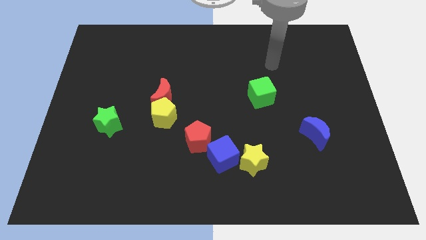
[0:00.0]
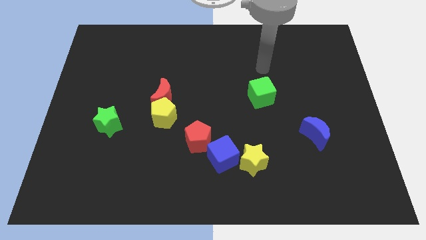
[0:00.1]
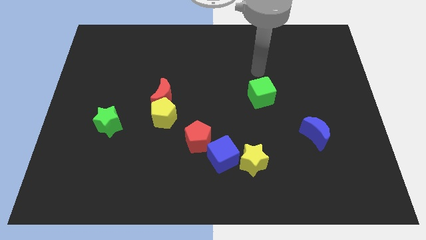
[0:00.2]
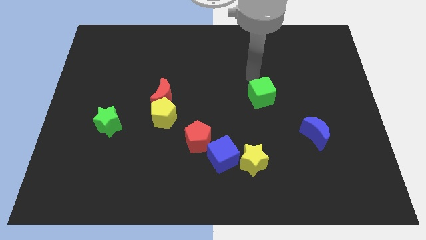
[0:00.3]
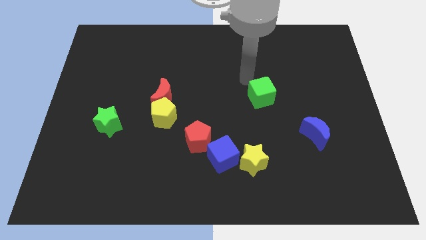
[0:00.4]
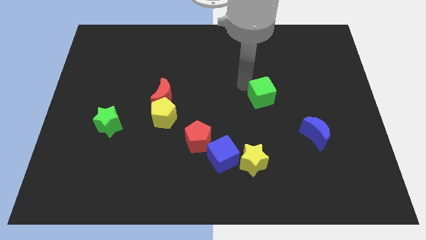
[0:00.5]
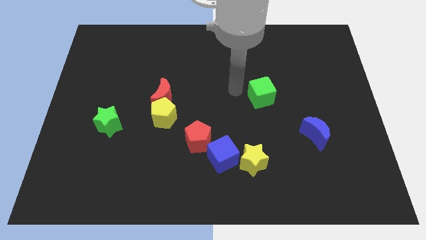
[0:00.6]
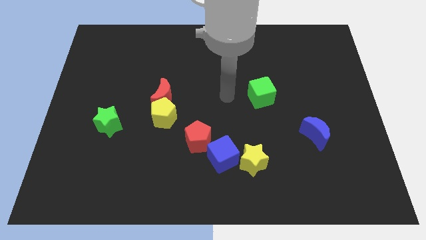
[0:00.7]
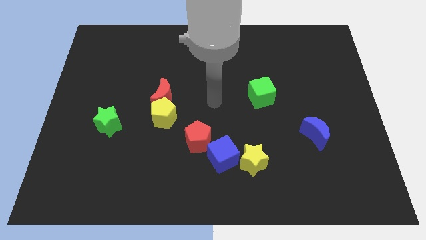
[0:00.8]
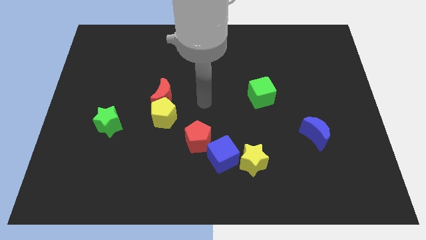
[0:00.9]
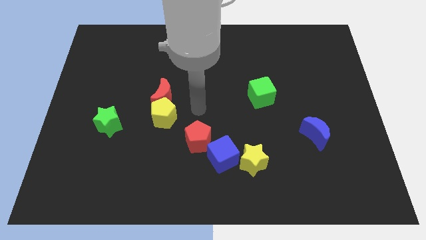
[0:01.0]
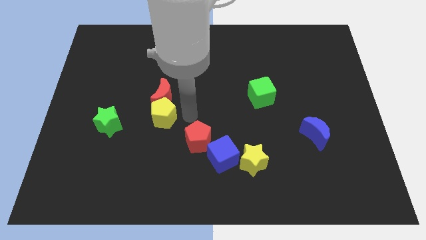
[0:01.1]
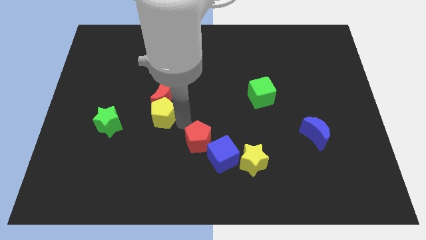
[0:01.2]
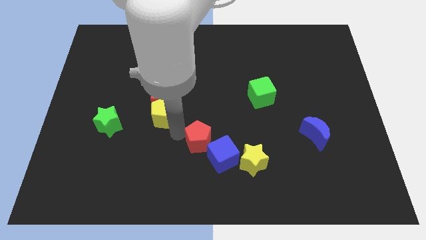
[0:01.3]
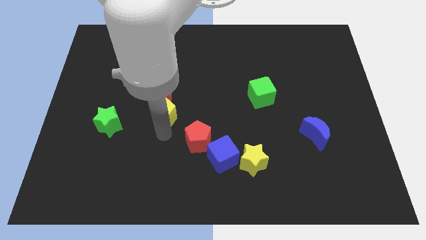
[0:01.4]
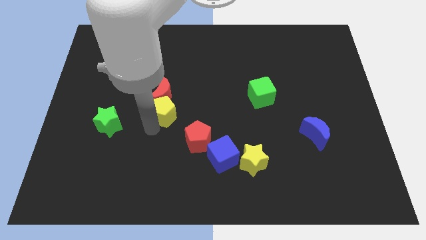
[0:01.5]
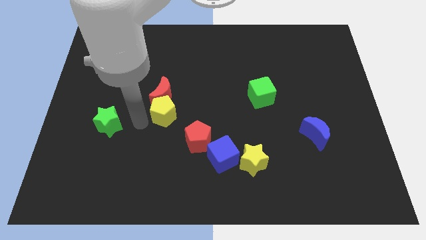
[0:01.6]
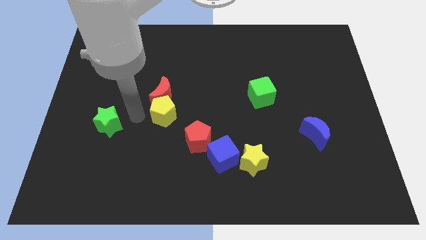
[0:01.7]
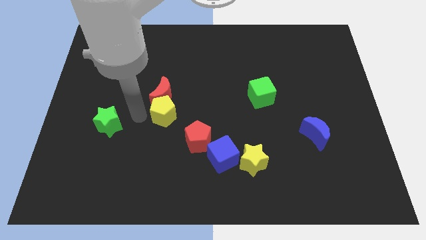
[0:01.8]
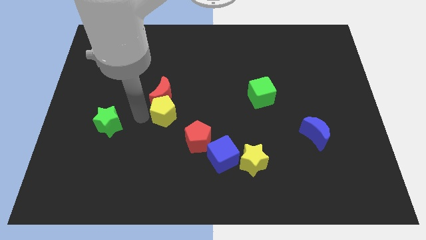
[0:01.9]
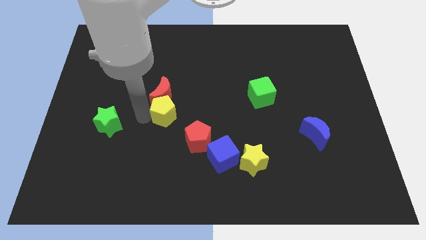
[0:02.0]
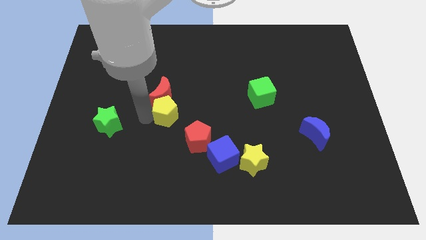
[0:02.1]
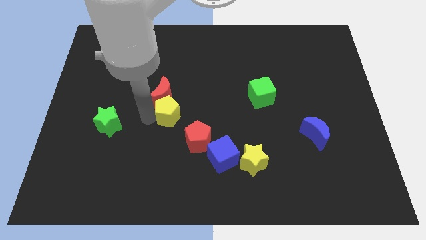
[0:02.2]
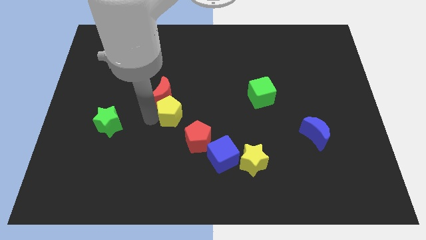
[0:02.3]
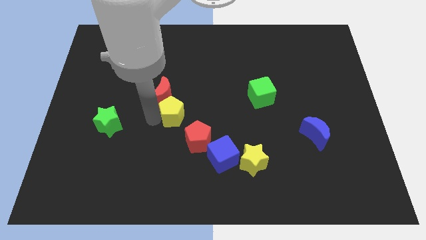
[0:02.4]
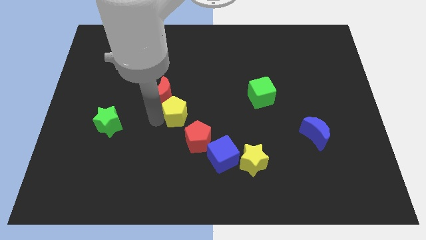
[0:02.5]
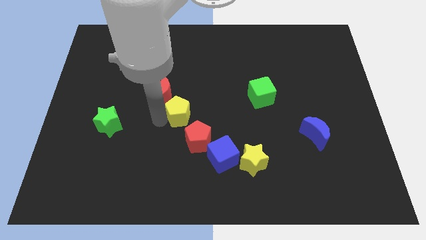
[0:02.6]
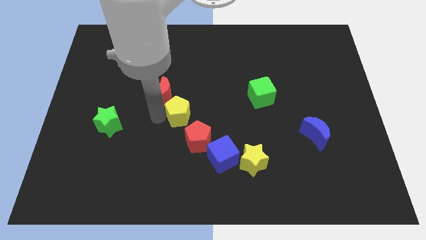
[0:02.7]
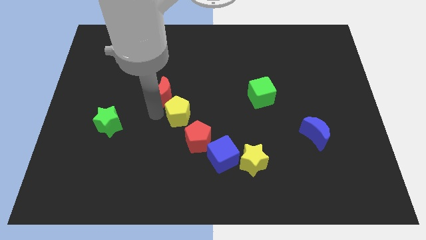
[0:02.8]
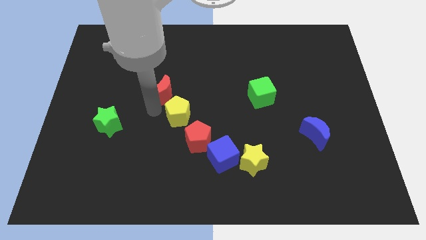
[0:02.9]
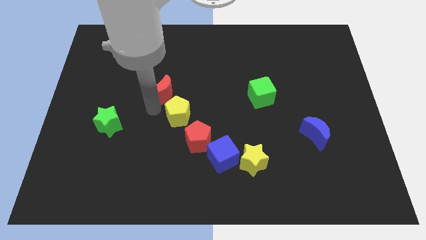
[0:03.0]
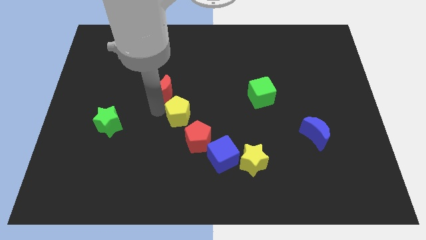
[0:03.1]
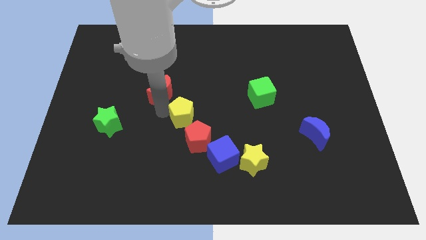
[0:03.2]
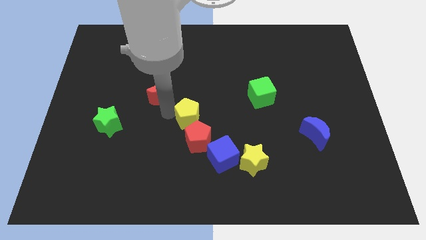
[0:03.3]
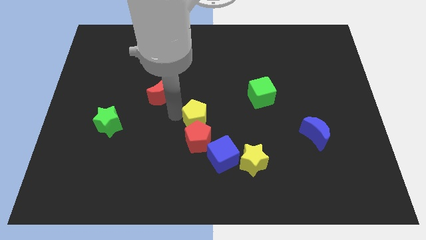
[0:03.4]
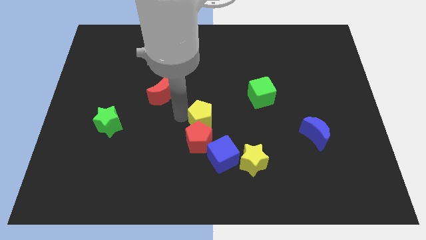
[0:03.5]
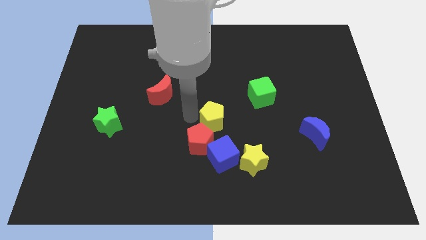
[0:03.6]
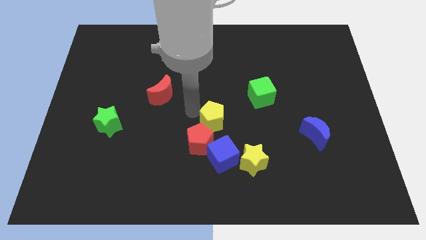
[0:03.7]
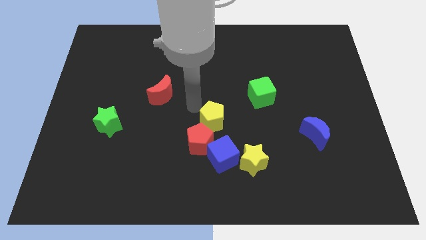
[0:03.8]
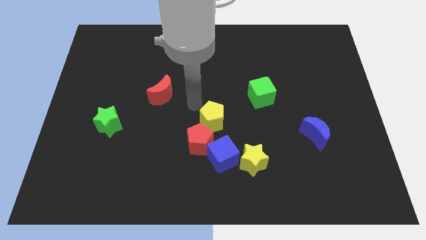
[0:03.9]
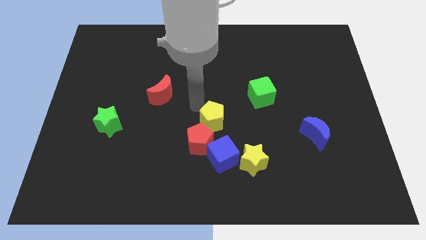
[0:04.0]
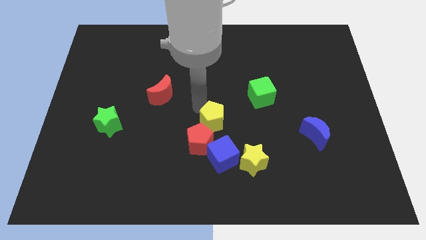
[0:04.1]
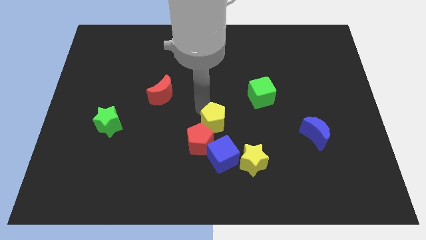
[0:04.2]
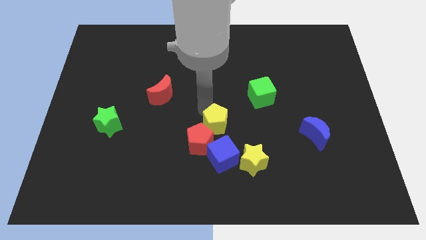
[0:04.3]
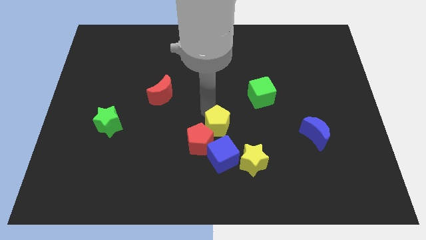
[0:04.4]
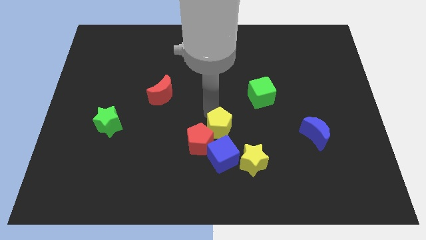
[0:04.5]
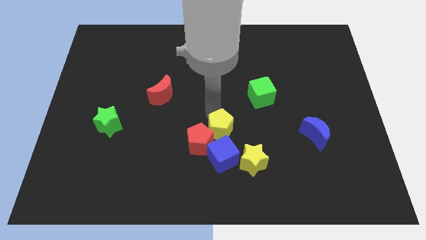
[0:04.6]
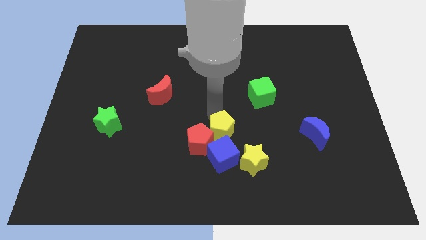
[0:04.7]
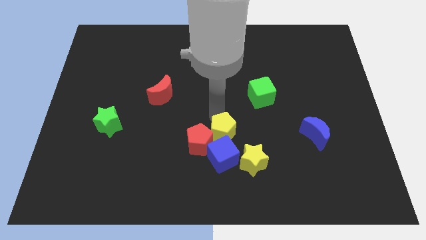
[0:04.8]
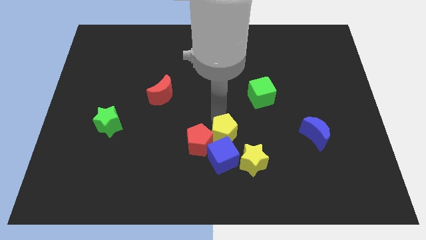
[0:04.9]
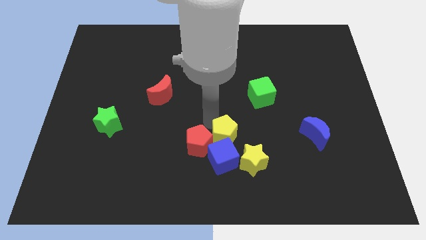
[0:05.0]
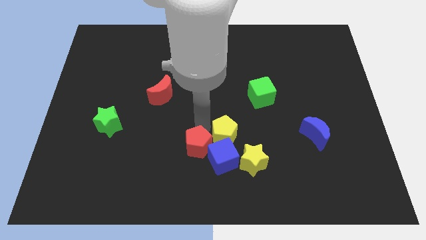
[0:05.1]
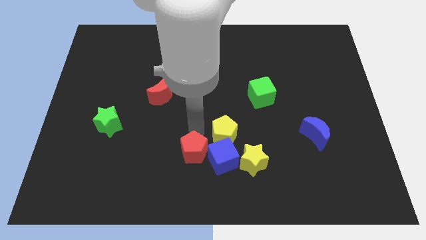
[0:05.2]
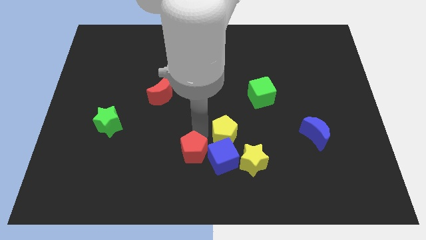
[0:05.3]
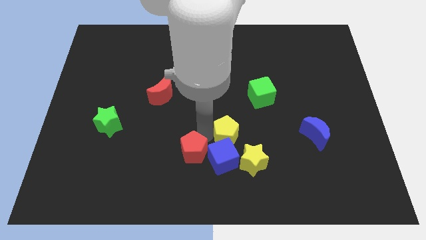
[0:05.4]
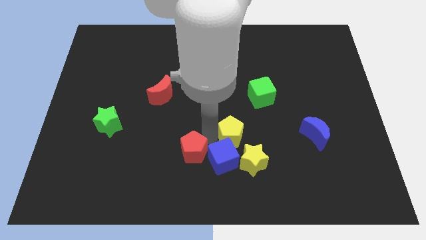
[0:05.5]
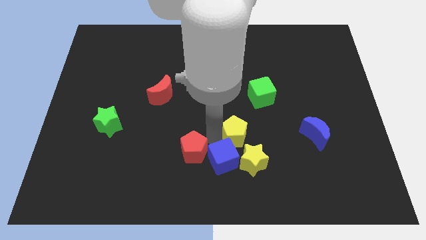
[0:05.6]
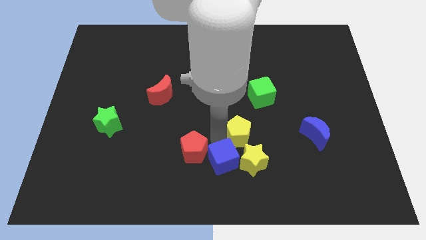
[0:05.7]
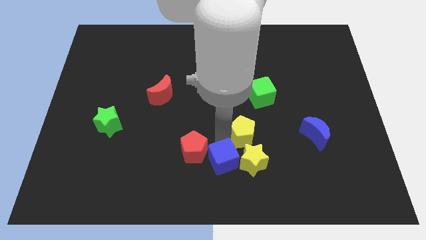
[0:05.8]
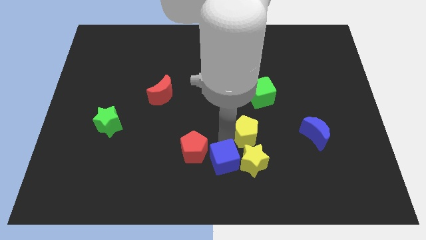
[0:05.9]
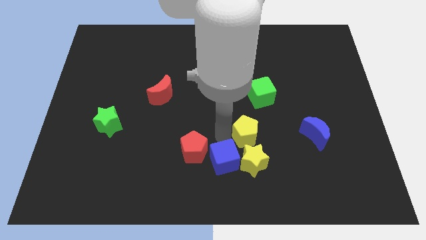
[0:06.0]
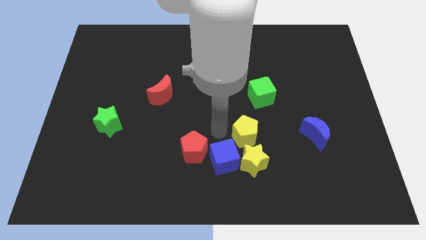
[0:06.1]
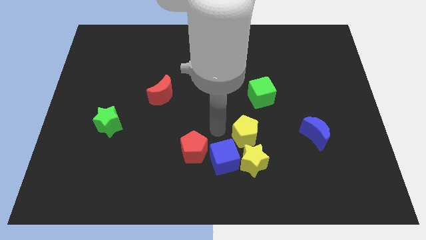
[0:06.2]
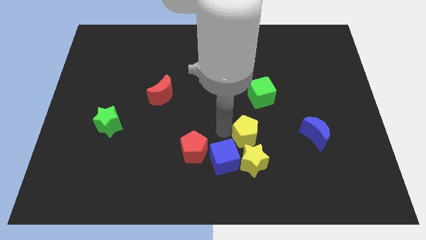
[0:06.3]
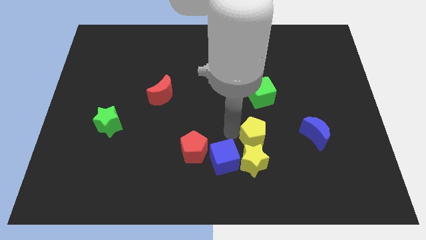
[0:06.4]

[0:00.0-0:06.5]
put the yellow pentagon diagonally up and to the right of the yellow star
